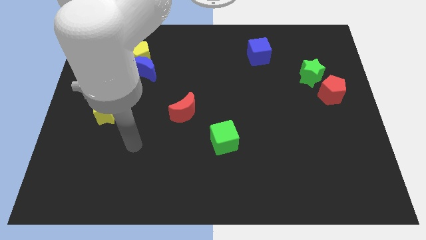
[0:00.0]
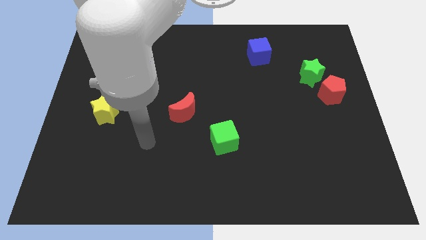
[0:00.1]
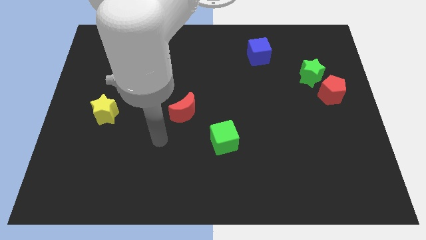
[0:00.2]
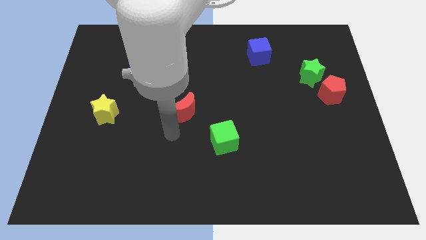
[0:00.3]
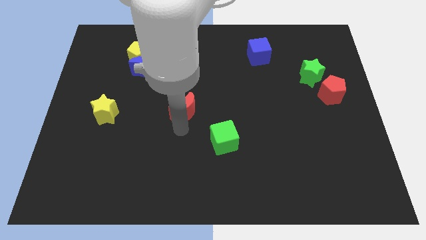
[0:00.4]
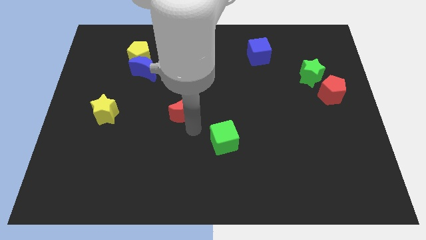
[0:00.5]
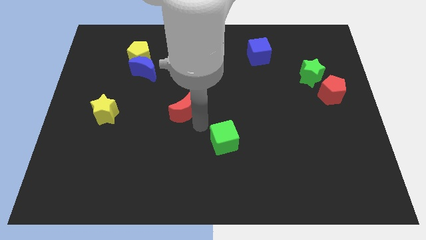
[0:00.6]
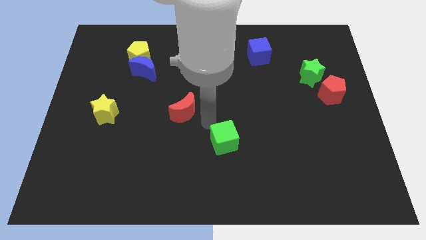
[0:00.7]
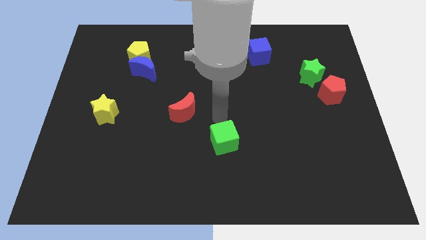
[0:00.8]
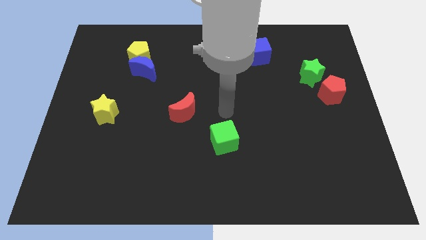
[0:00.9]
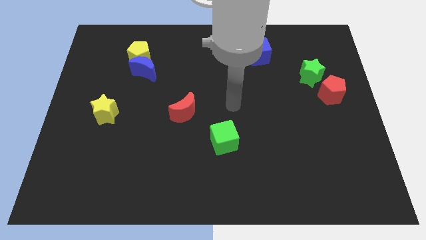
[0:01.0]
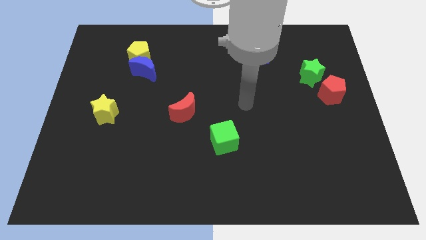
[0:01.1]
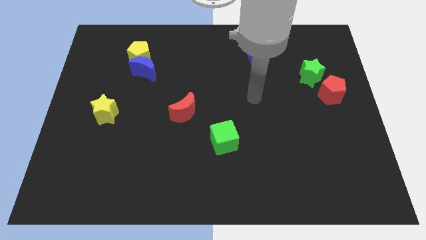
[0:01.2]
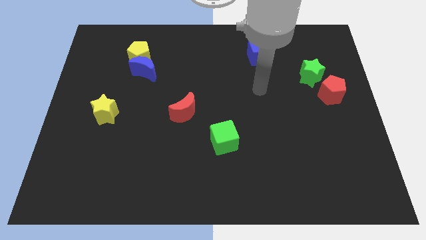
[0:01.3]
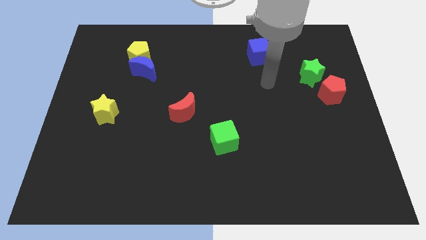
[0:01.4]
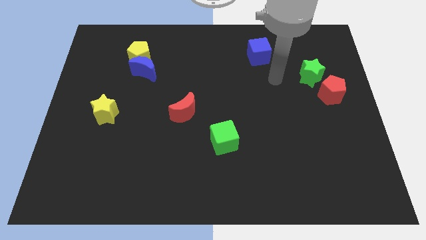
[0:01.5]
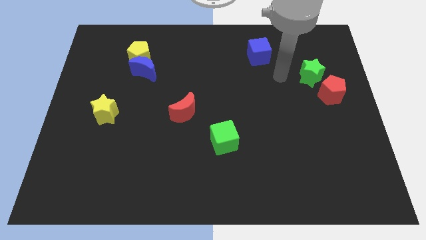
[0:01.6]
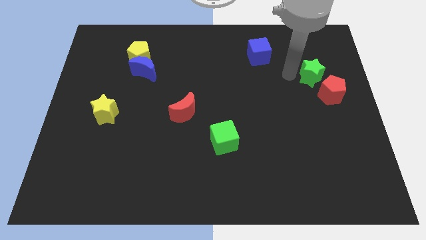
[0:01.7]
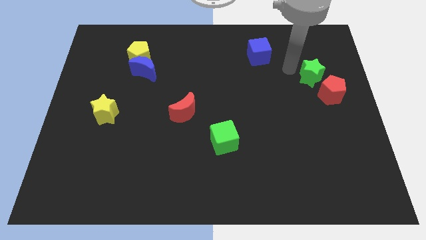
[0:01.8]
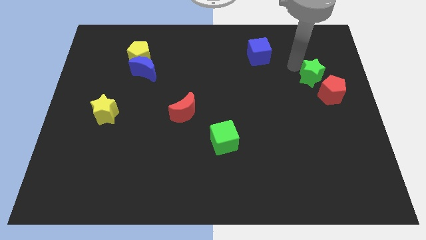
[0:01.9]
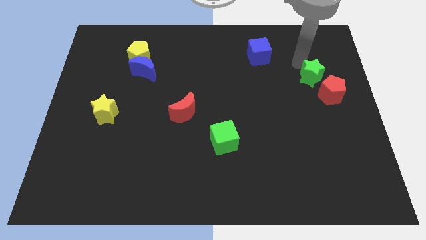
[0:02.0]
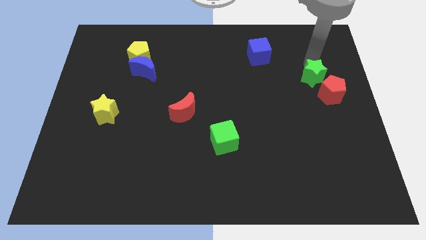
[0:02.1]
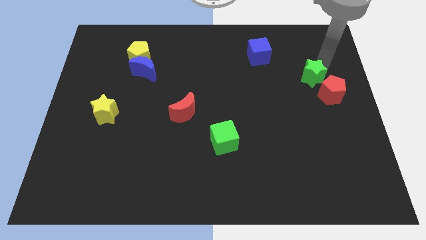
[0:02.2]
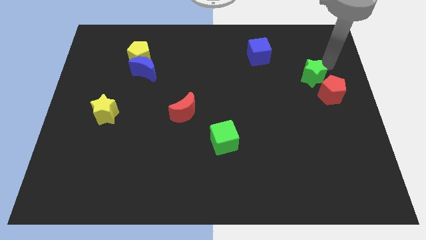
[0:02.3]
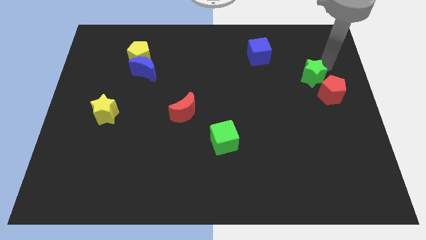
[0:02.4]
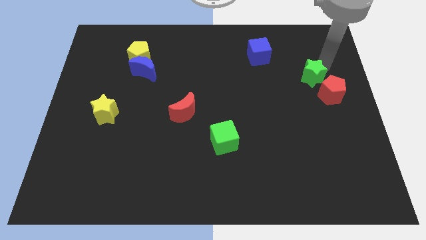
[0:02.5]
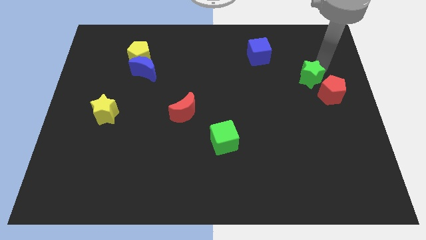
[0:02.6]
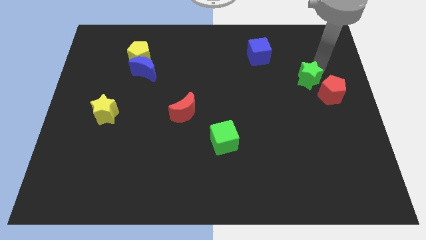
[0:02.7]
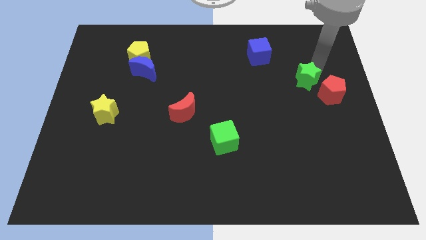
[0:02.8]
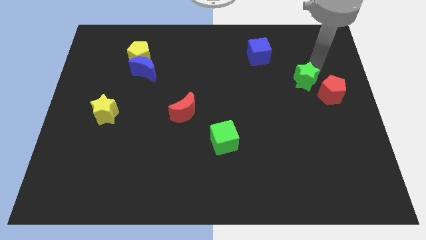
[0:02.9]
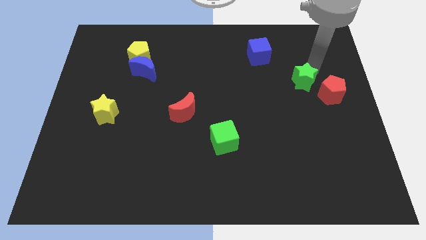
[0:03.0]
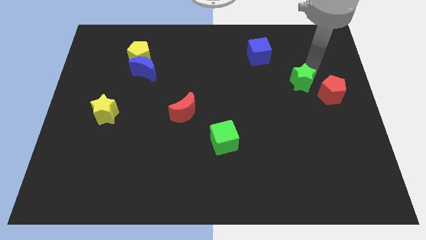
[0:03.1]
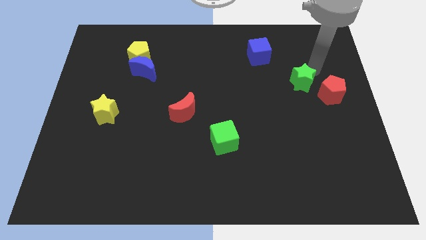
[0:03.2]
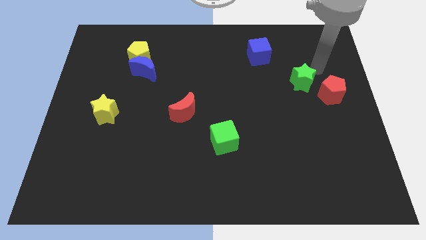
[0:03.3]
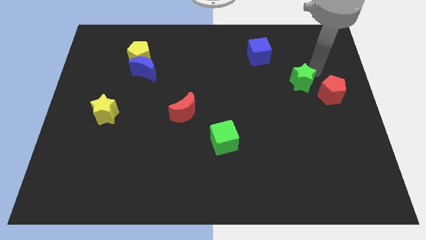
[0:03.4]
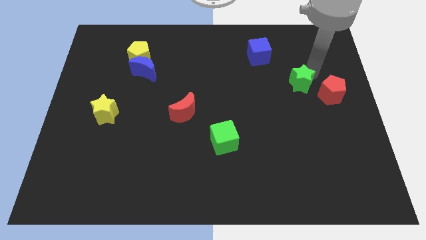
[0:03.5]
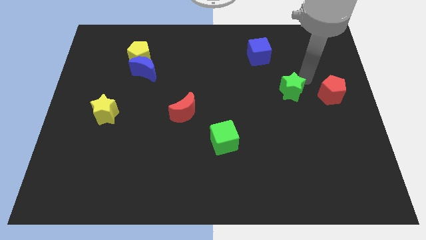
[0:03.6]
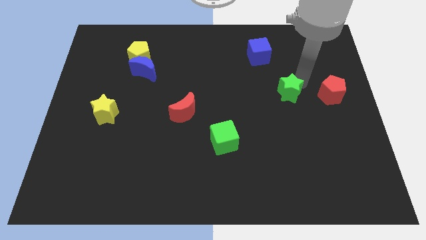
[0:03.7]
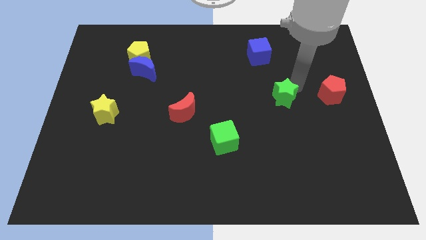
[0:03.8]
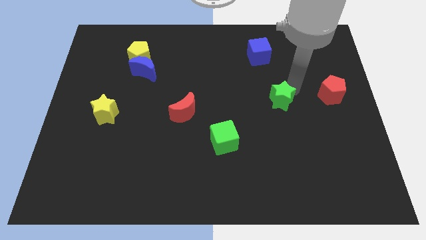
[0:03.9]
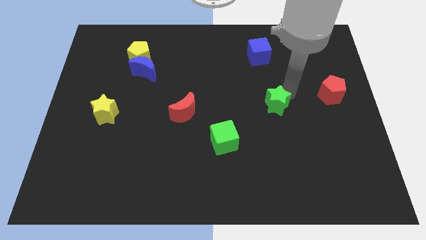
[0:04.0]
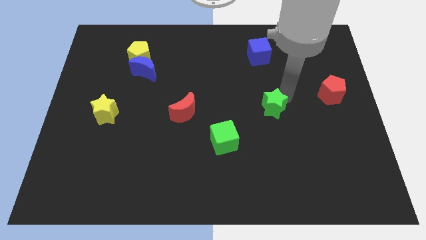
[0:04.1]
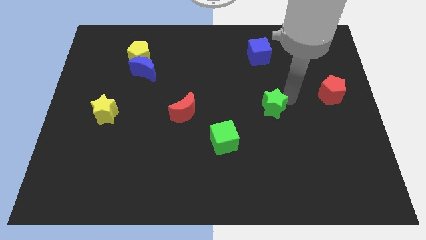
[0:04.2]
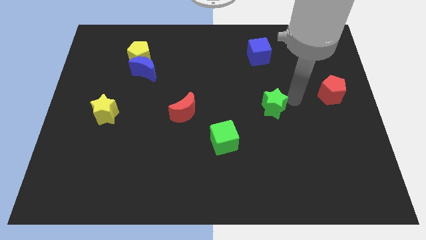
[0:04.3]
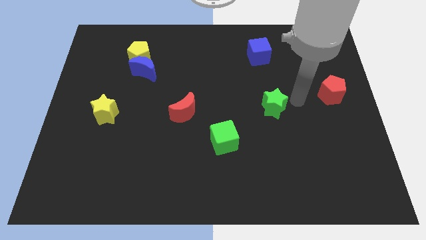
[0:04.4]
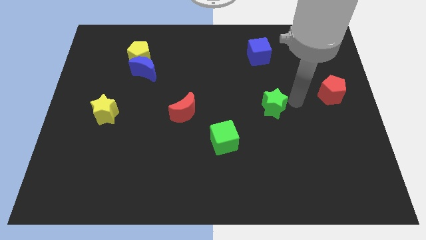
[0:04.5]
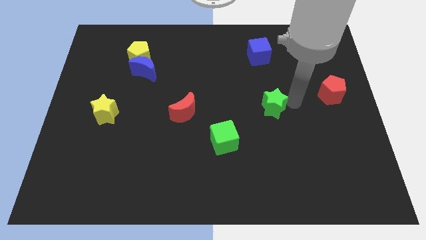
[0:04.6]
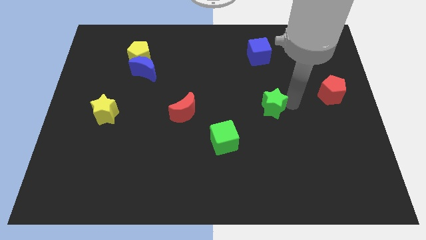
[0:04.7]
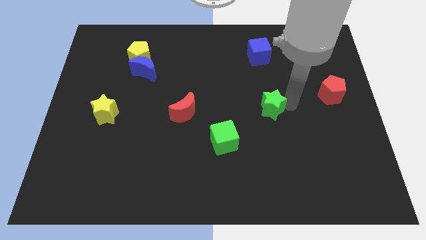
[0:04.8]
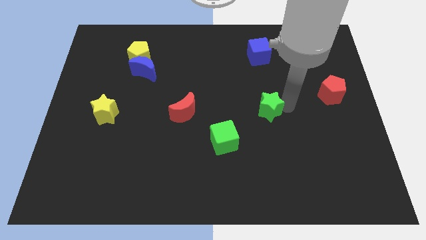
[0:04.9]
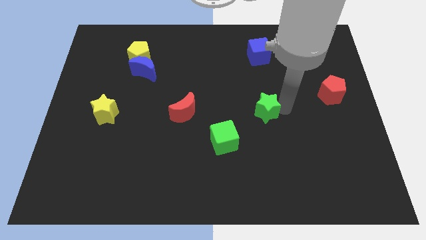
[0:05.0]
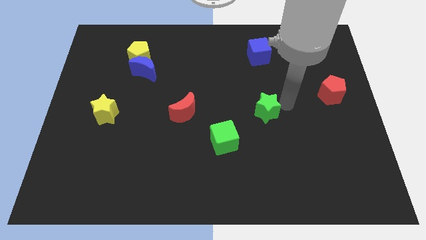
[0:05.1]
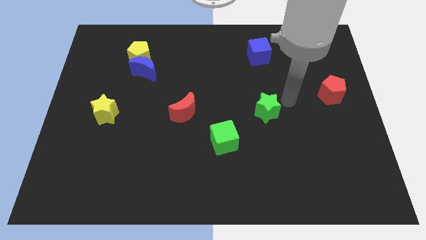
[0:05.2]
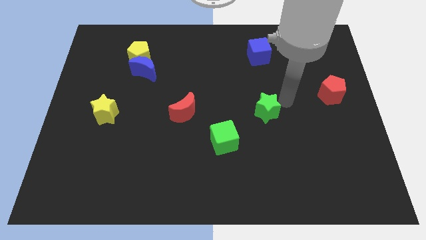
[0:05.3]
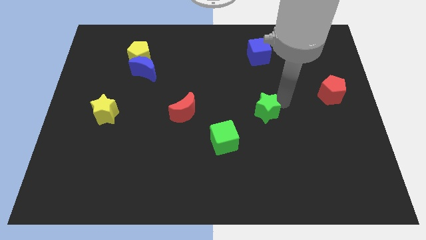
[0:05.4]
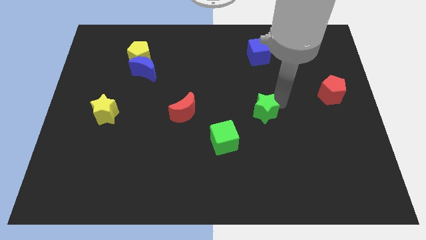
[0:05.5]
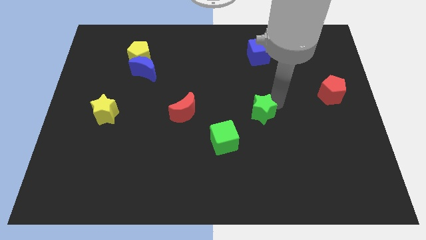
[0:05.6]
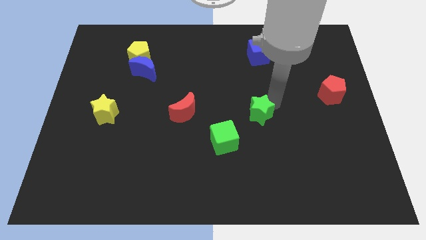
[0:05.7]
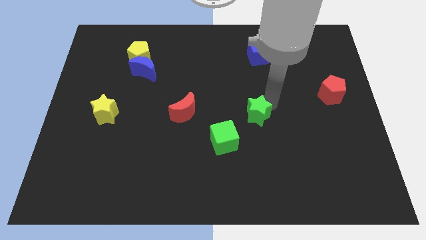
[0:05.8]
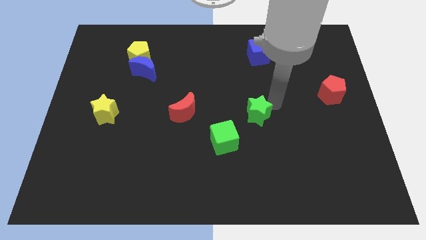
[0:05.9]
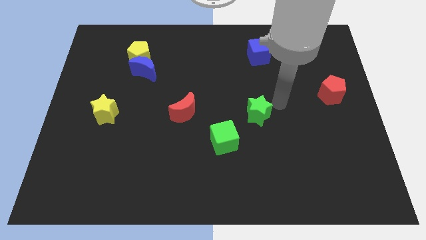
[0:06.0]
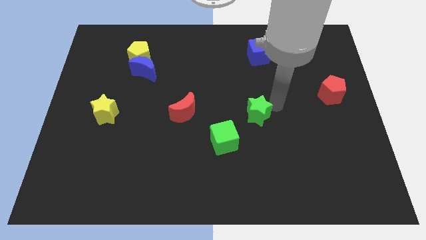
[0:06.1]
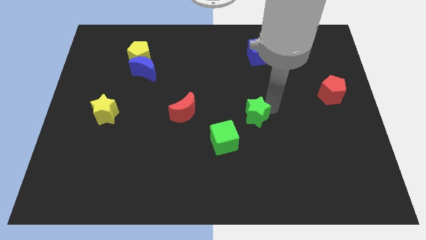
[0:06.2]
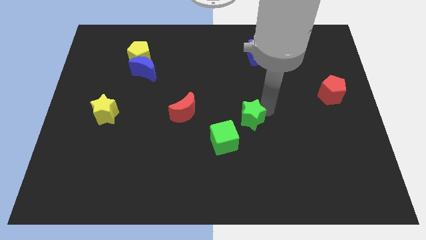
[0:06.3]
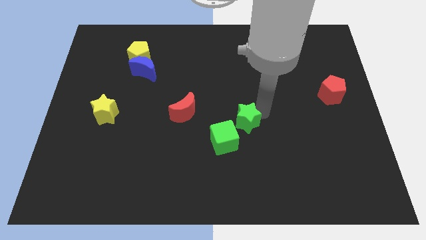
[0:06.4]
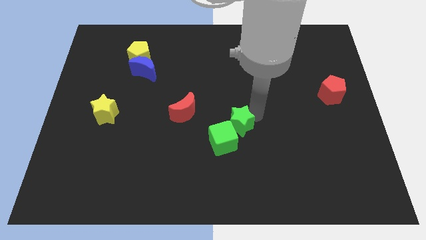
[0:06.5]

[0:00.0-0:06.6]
push the green star to the green cube

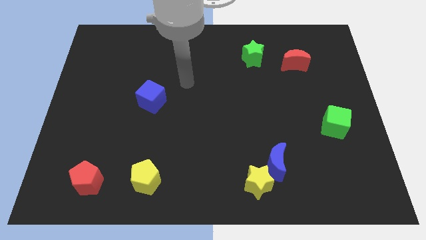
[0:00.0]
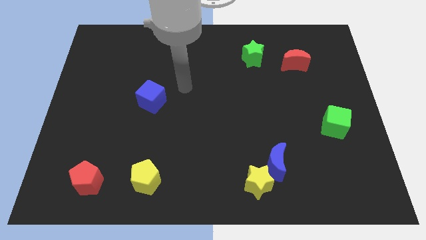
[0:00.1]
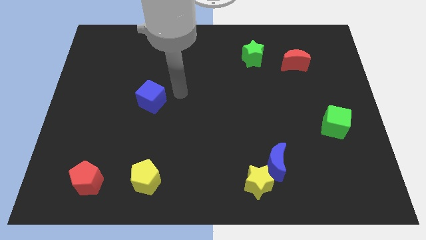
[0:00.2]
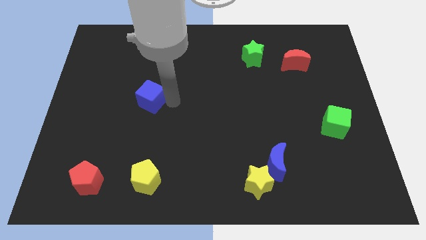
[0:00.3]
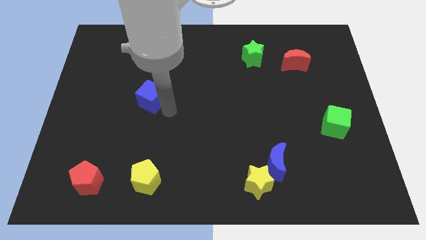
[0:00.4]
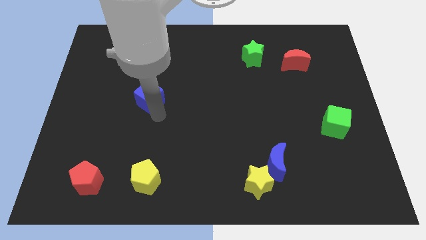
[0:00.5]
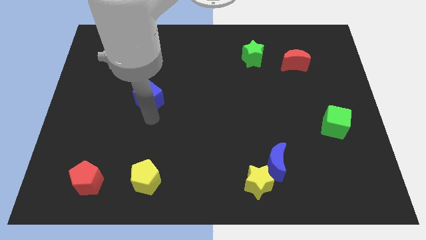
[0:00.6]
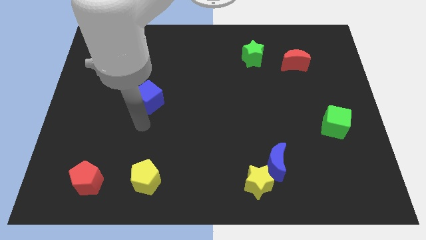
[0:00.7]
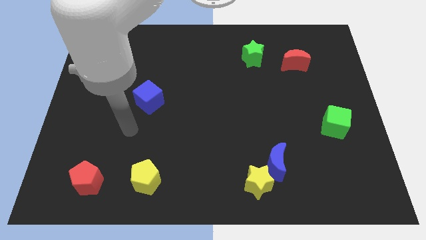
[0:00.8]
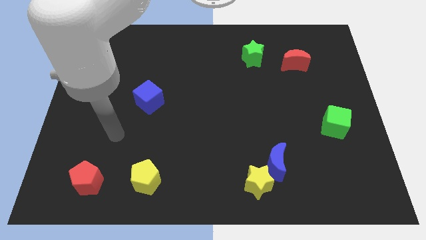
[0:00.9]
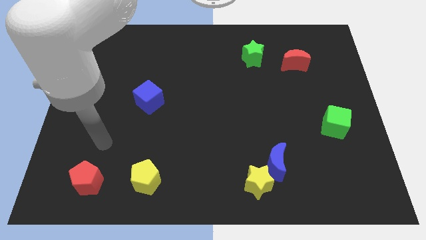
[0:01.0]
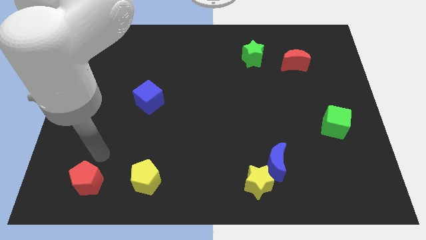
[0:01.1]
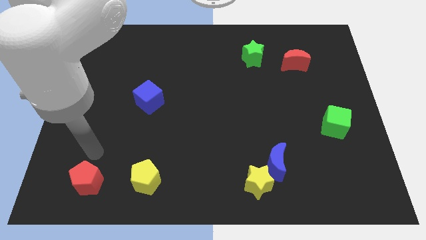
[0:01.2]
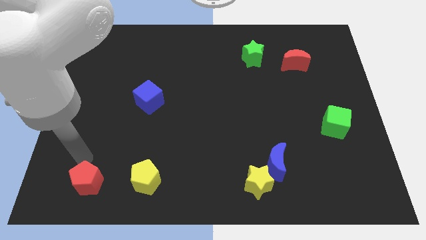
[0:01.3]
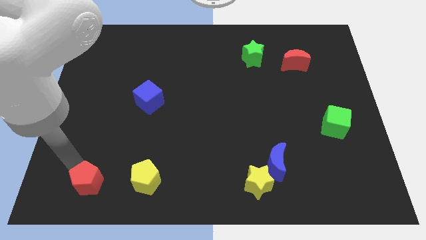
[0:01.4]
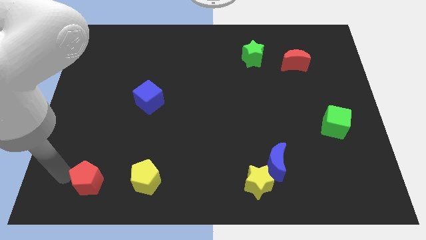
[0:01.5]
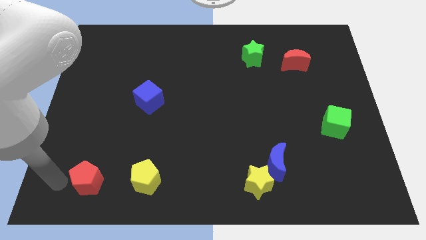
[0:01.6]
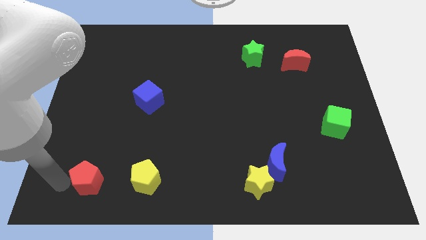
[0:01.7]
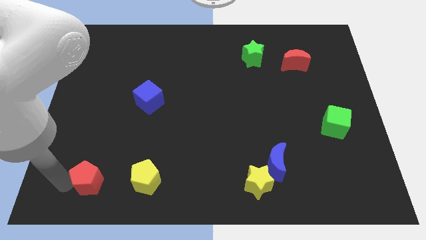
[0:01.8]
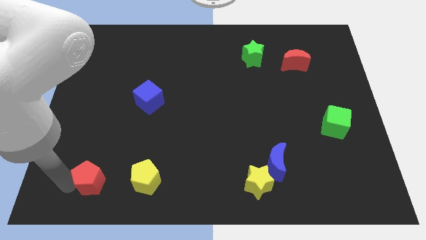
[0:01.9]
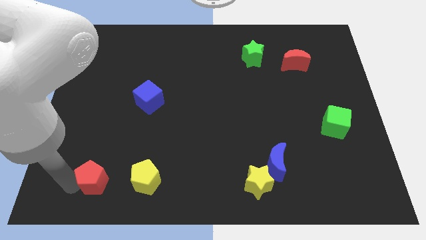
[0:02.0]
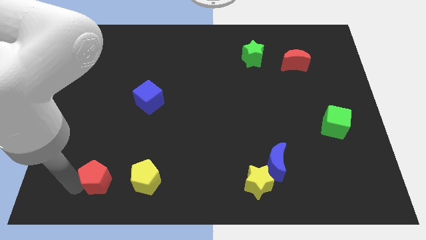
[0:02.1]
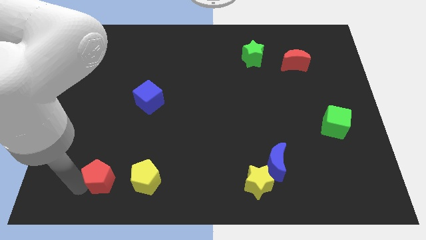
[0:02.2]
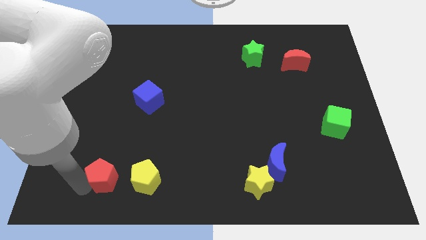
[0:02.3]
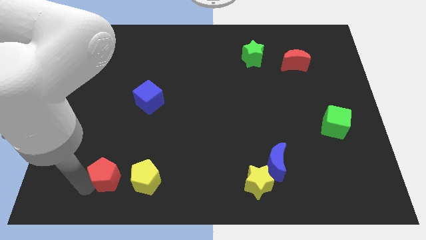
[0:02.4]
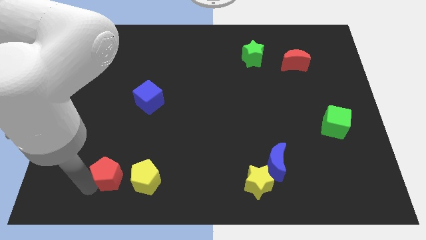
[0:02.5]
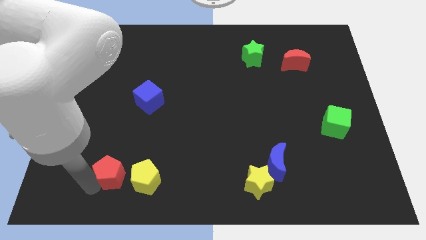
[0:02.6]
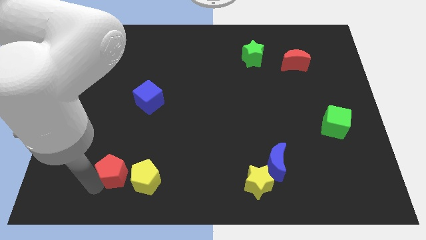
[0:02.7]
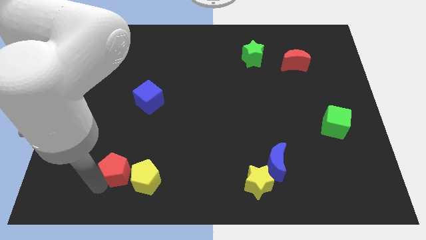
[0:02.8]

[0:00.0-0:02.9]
slide the red pentagon towards the yellow pentagon
